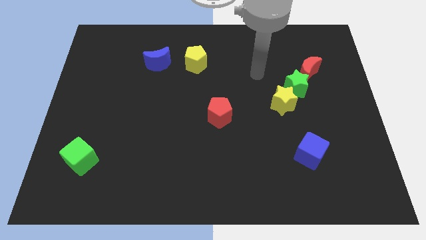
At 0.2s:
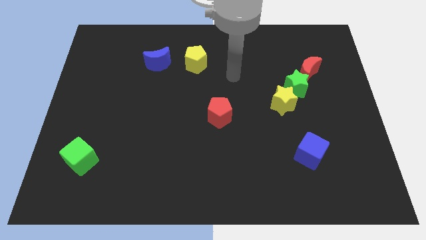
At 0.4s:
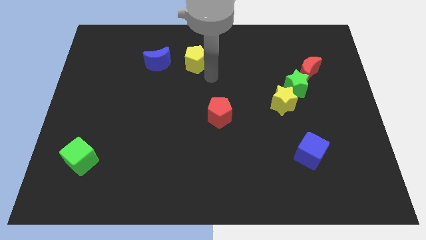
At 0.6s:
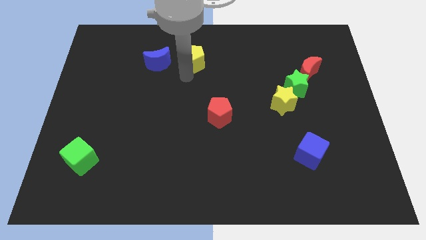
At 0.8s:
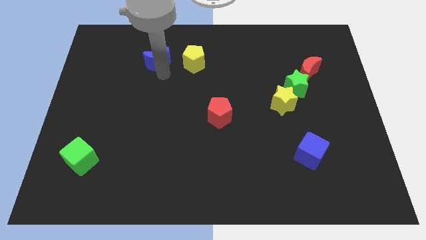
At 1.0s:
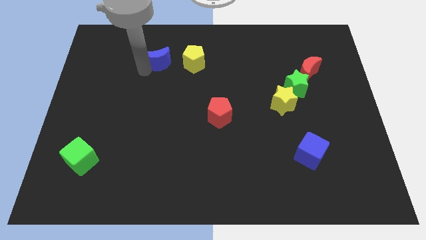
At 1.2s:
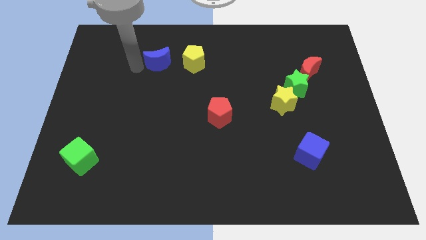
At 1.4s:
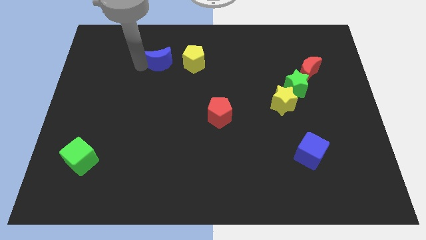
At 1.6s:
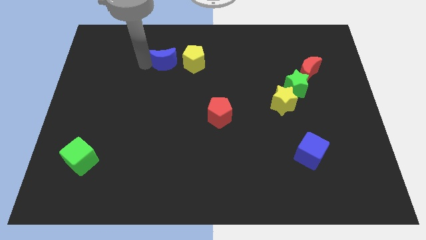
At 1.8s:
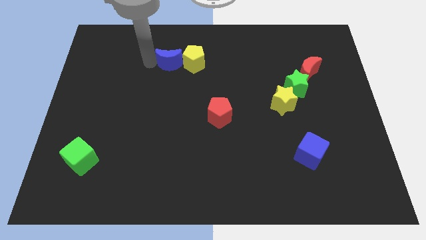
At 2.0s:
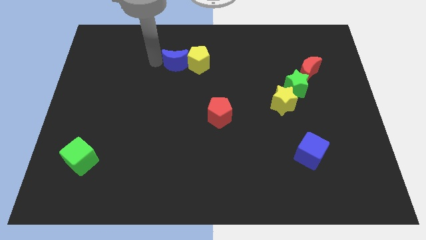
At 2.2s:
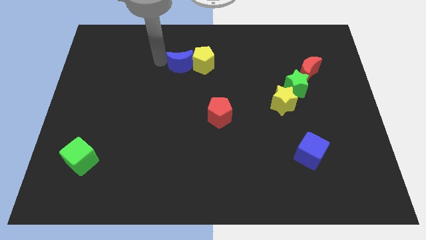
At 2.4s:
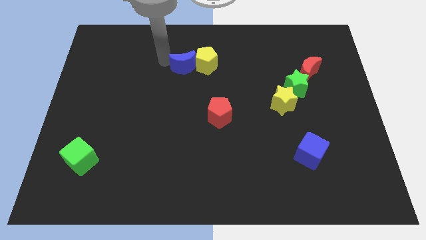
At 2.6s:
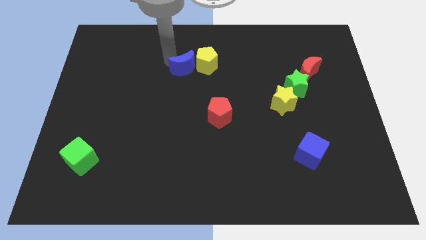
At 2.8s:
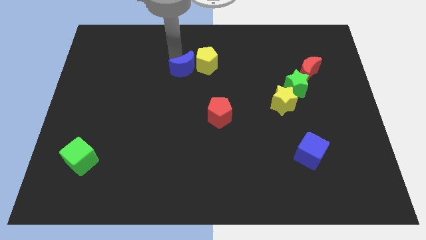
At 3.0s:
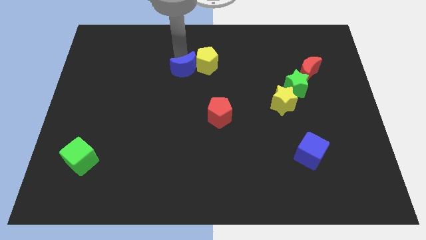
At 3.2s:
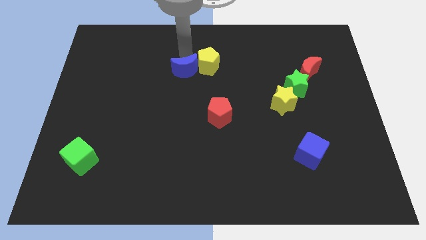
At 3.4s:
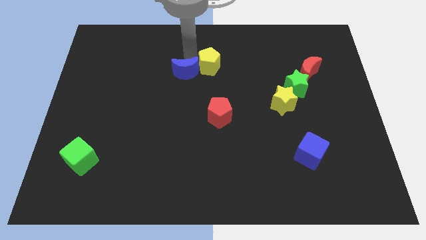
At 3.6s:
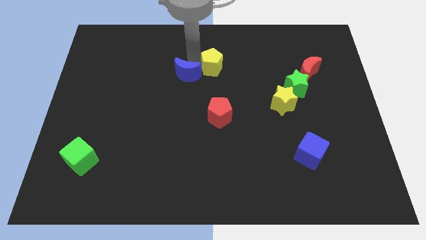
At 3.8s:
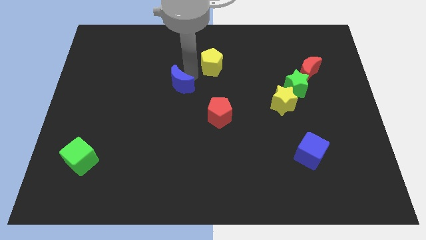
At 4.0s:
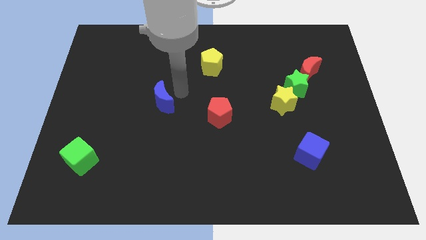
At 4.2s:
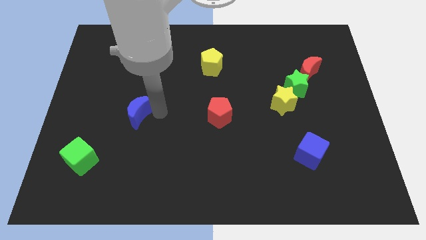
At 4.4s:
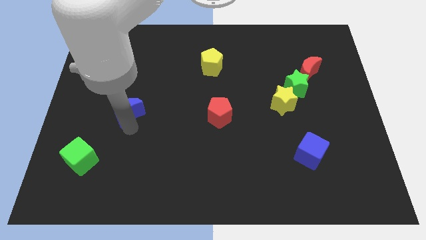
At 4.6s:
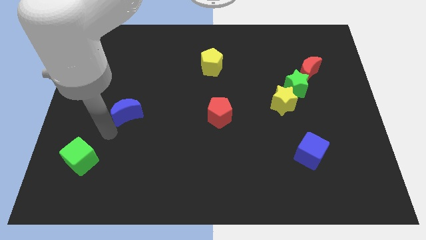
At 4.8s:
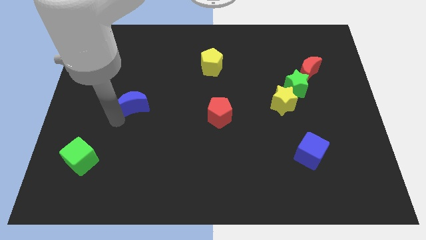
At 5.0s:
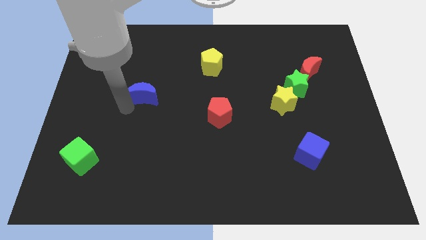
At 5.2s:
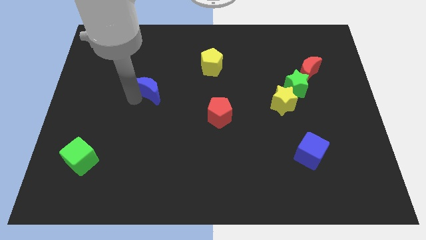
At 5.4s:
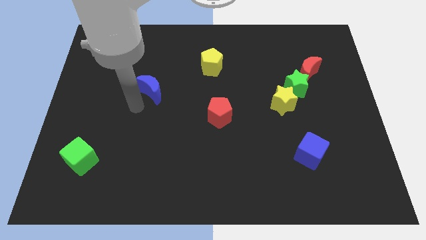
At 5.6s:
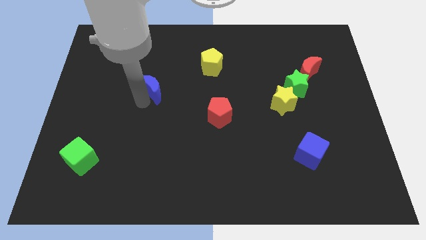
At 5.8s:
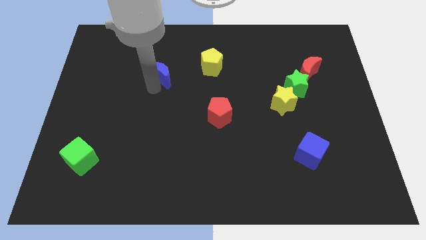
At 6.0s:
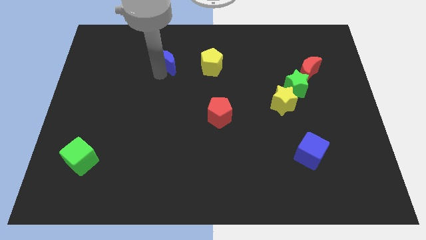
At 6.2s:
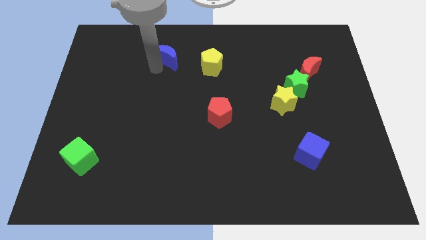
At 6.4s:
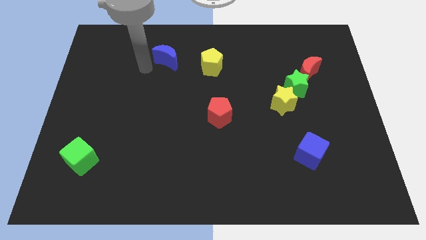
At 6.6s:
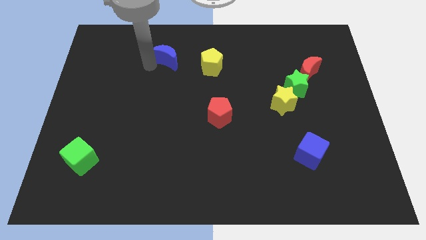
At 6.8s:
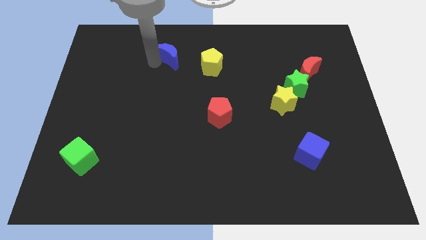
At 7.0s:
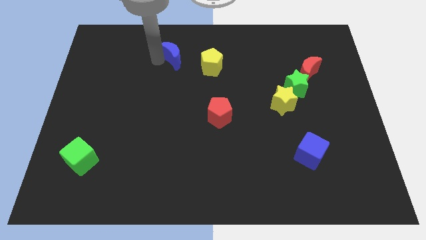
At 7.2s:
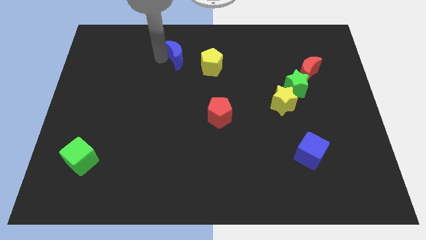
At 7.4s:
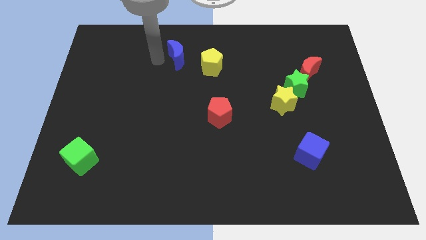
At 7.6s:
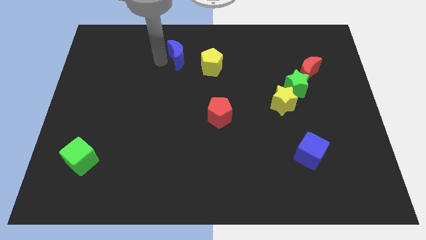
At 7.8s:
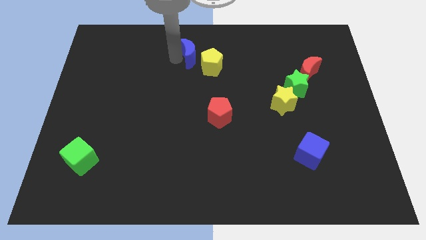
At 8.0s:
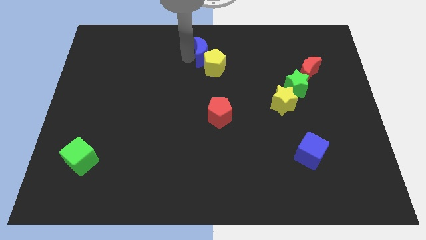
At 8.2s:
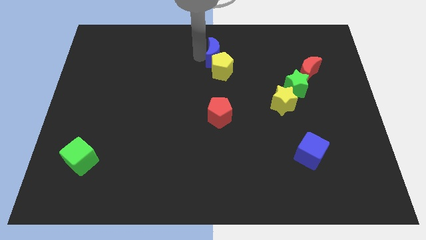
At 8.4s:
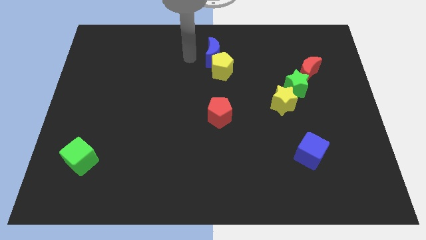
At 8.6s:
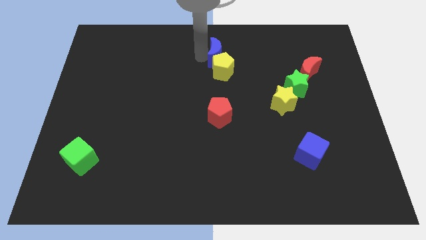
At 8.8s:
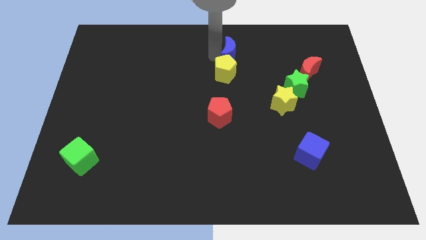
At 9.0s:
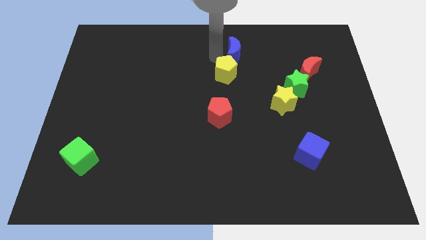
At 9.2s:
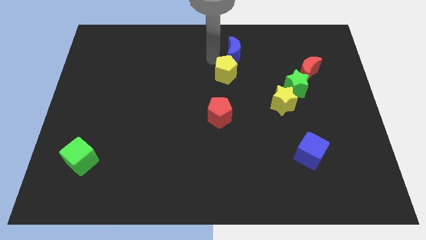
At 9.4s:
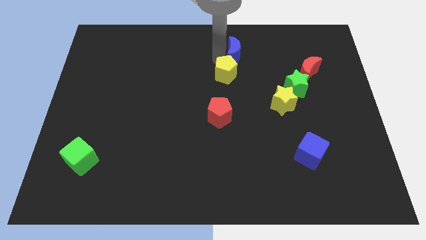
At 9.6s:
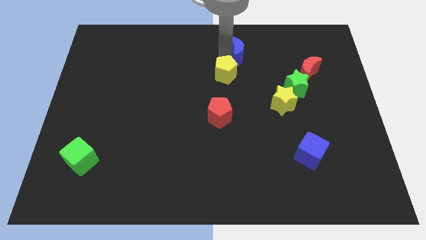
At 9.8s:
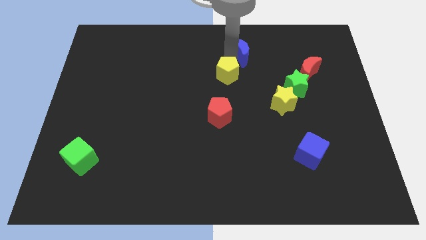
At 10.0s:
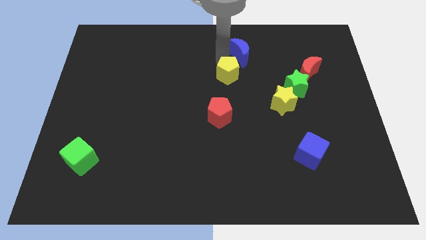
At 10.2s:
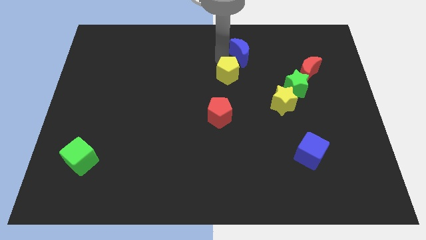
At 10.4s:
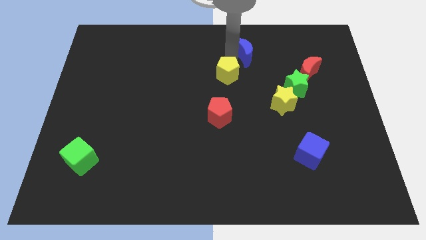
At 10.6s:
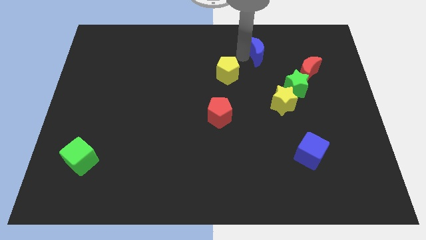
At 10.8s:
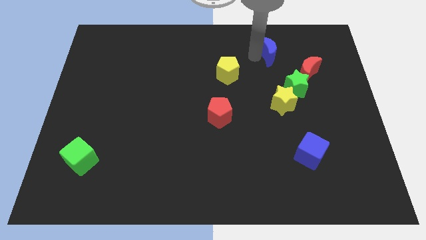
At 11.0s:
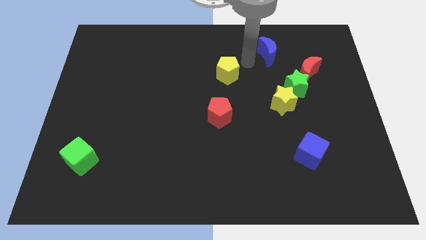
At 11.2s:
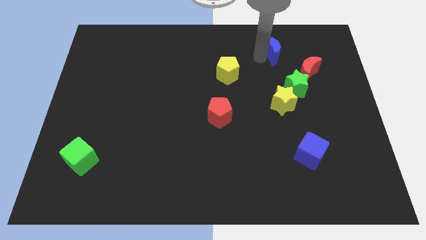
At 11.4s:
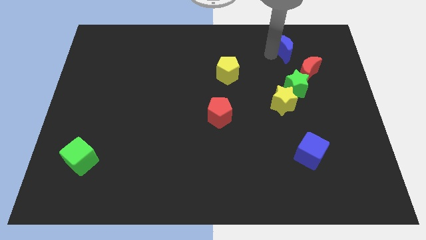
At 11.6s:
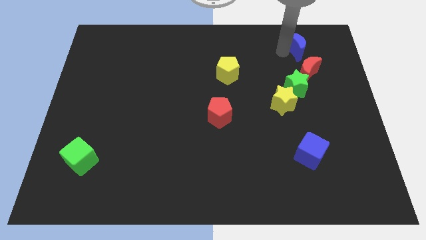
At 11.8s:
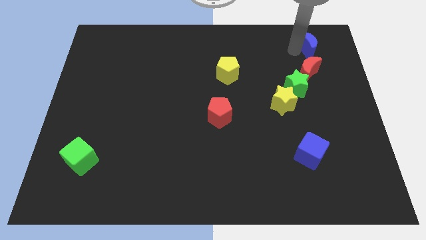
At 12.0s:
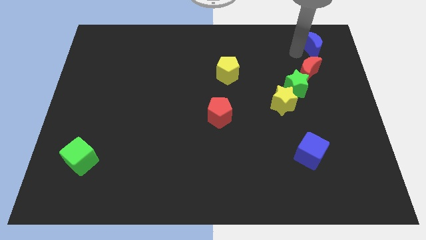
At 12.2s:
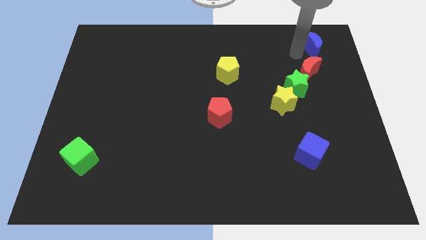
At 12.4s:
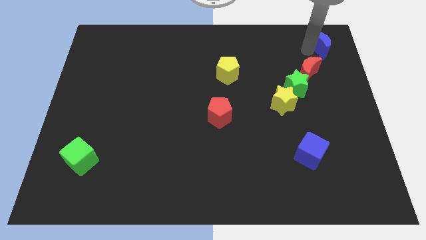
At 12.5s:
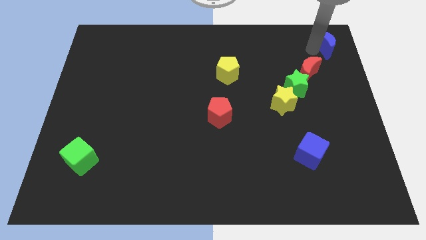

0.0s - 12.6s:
move the blue moon to the top right corner

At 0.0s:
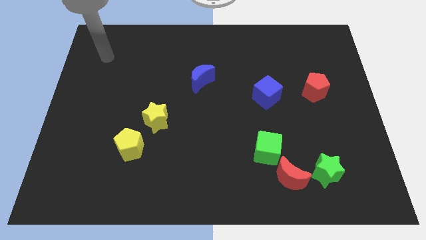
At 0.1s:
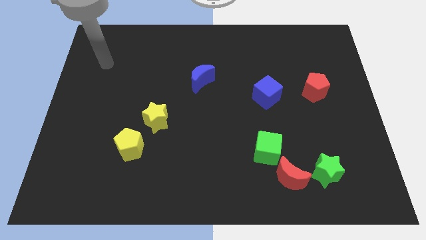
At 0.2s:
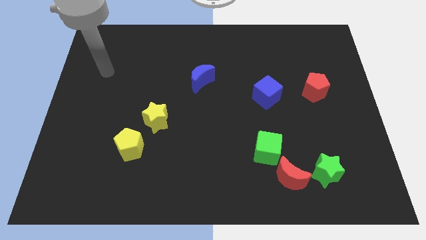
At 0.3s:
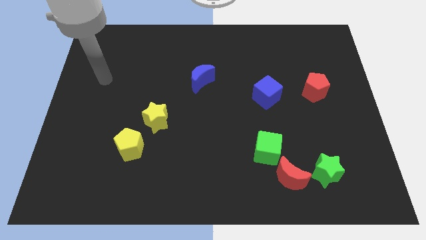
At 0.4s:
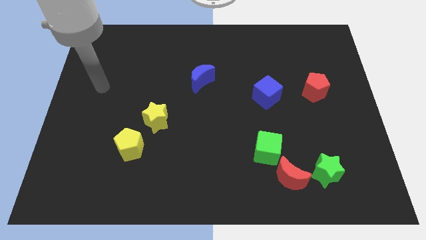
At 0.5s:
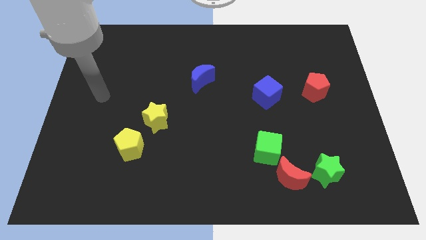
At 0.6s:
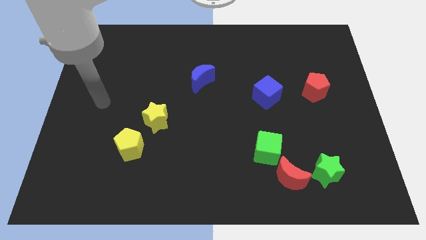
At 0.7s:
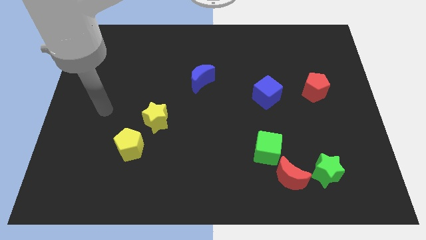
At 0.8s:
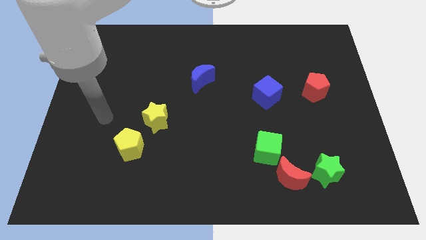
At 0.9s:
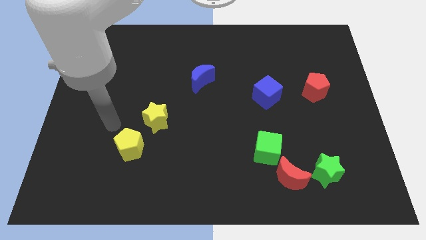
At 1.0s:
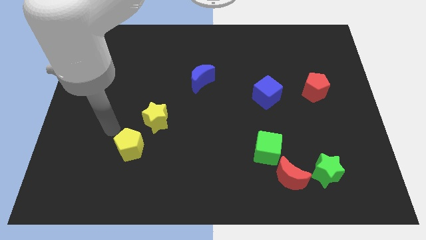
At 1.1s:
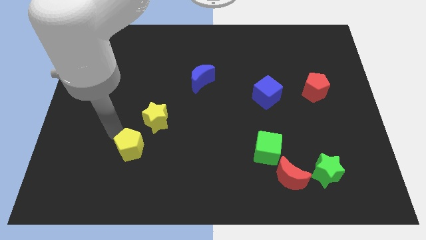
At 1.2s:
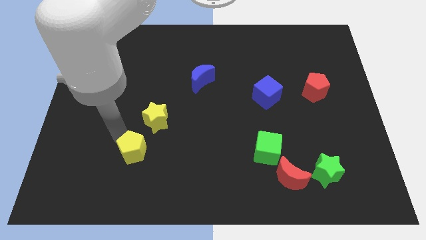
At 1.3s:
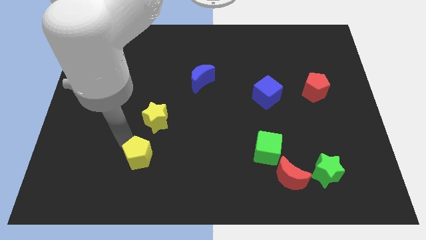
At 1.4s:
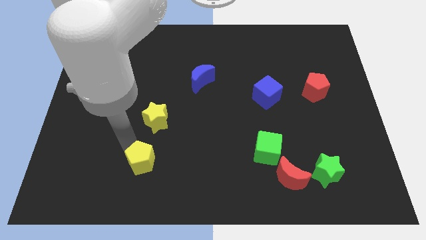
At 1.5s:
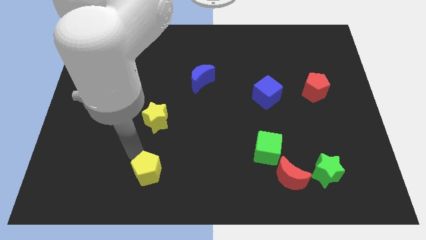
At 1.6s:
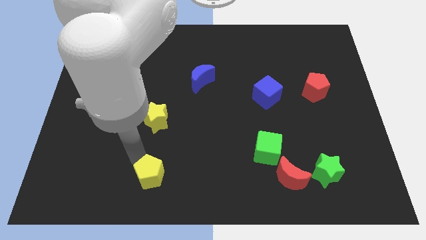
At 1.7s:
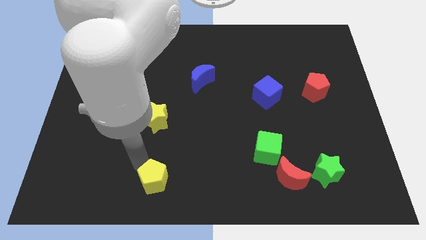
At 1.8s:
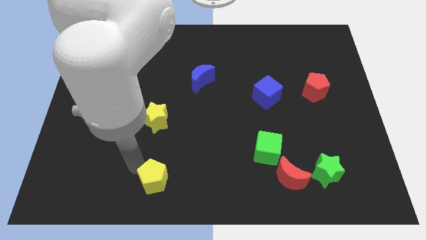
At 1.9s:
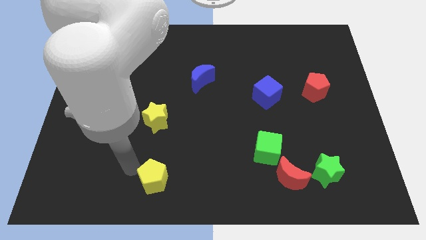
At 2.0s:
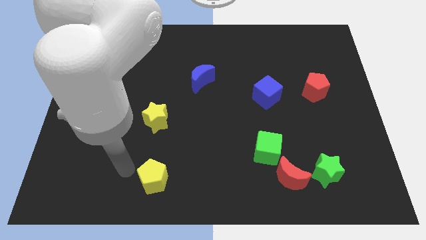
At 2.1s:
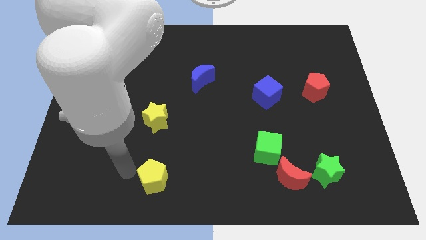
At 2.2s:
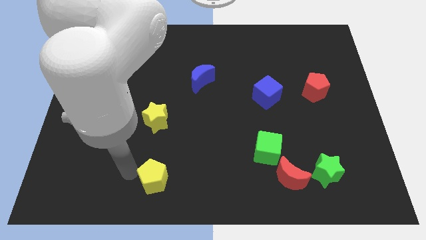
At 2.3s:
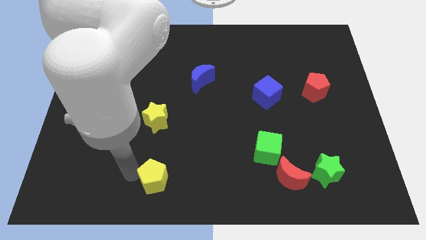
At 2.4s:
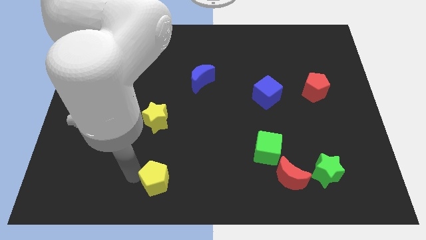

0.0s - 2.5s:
move the yellow pentagon to the bottom
